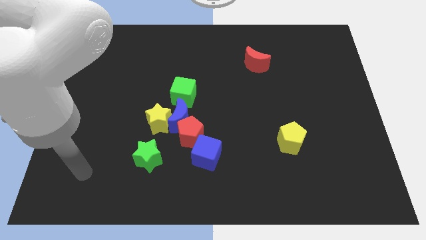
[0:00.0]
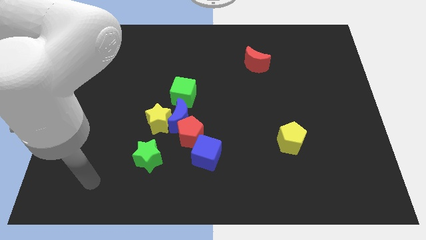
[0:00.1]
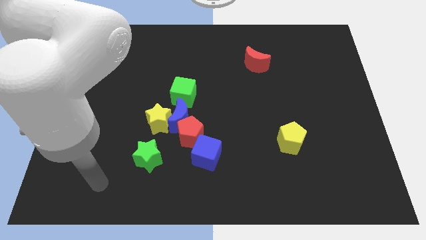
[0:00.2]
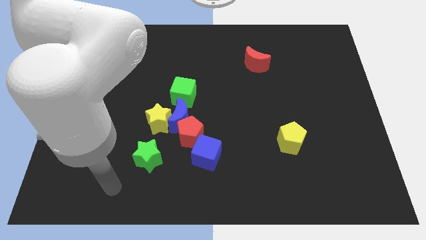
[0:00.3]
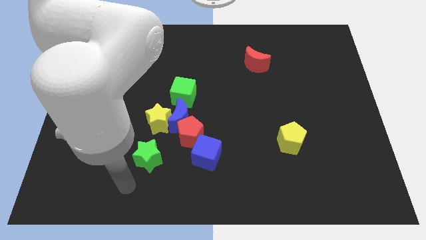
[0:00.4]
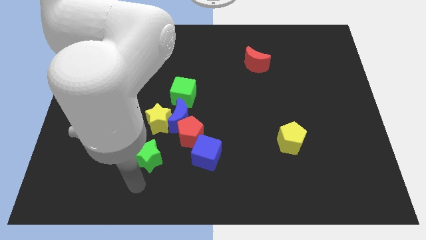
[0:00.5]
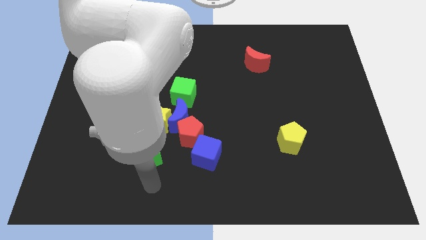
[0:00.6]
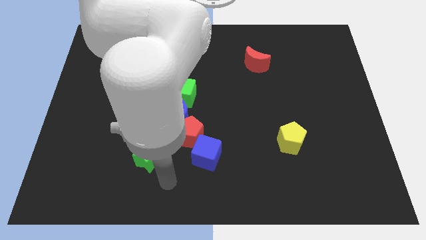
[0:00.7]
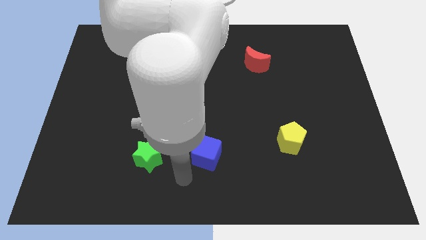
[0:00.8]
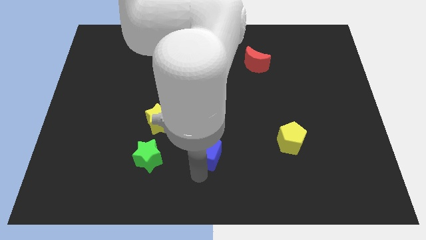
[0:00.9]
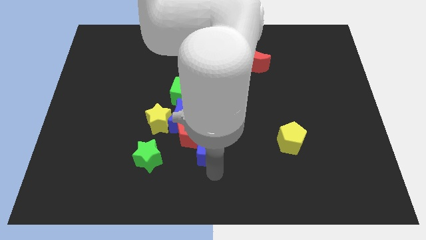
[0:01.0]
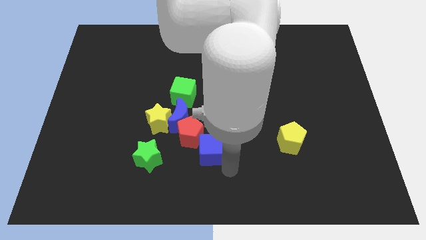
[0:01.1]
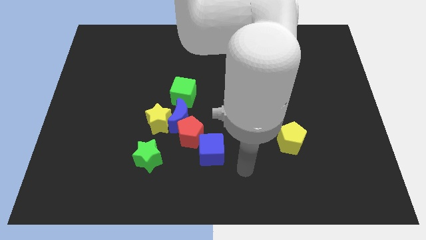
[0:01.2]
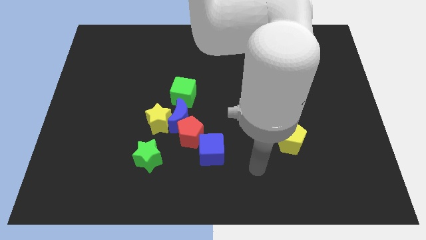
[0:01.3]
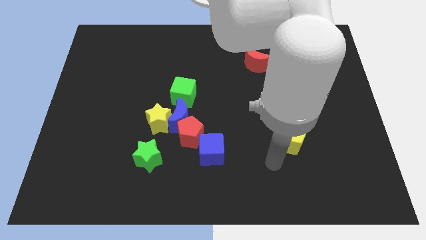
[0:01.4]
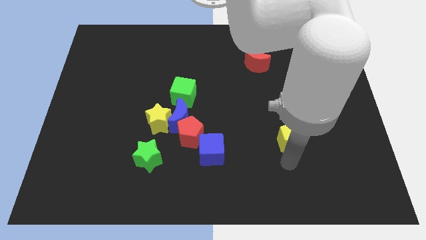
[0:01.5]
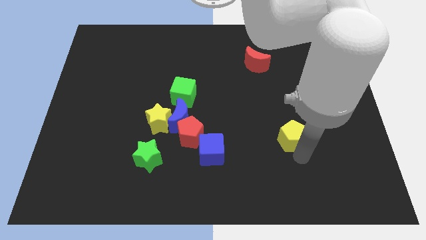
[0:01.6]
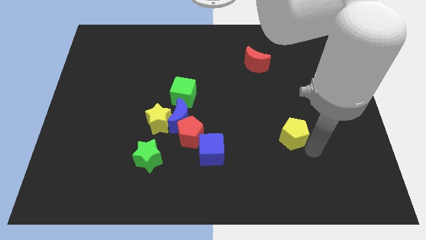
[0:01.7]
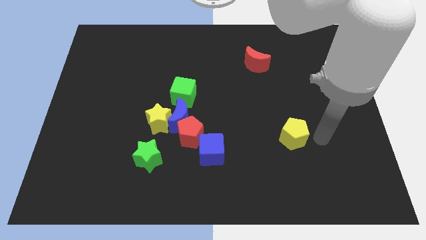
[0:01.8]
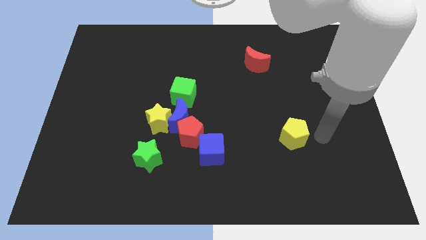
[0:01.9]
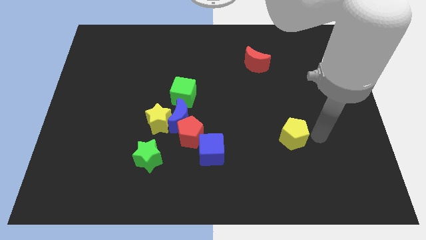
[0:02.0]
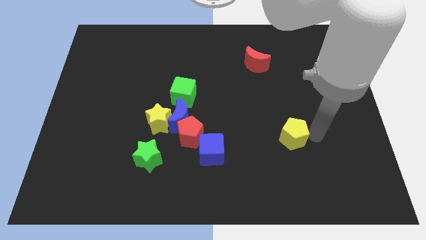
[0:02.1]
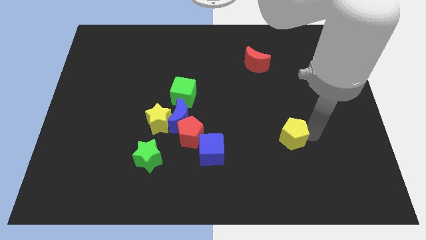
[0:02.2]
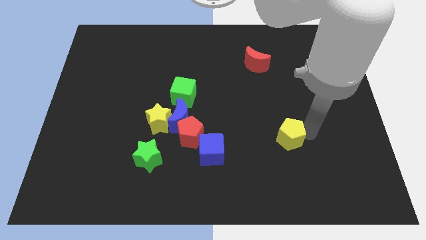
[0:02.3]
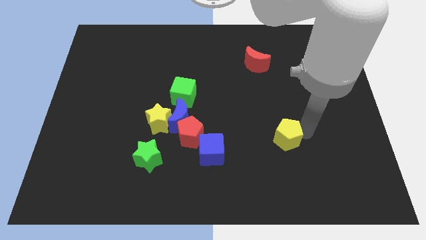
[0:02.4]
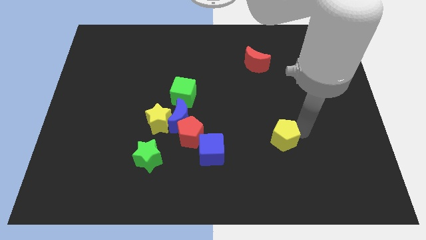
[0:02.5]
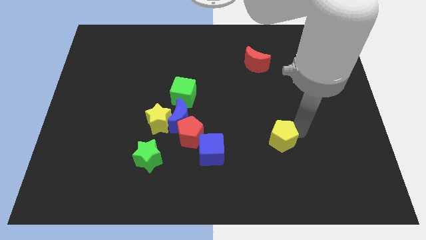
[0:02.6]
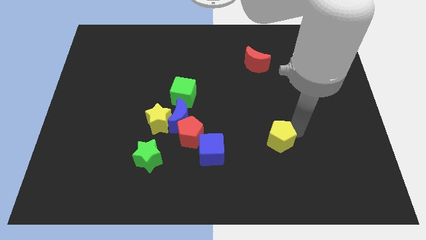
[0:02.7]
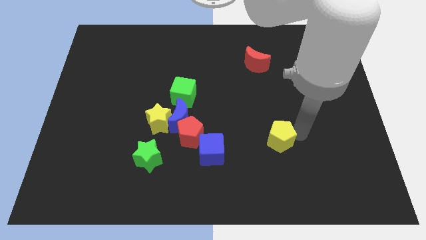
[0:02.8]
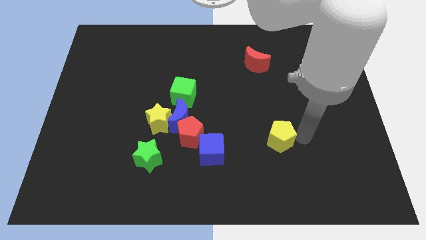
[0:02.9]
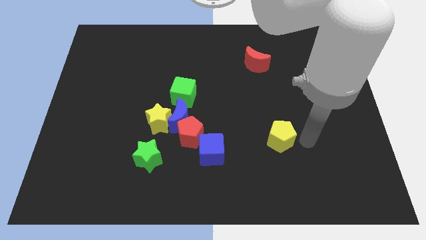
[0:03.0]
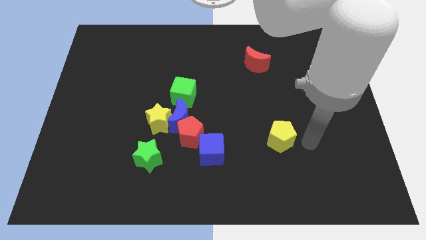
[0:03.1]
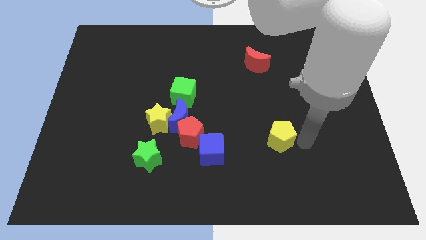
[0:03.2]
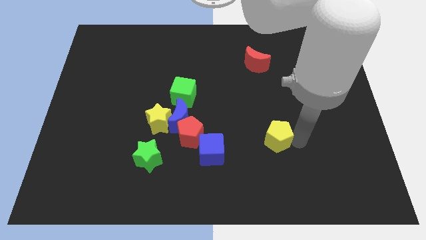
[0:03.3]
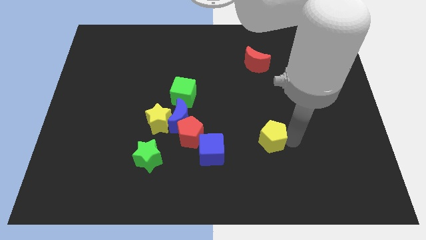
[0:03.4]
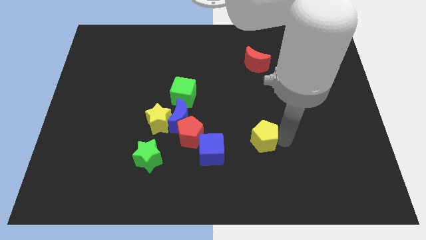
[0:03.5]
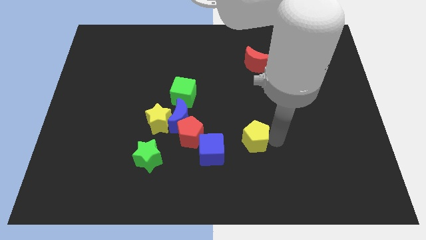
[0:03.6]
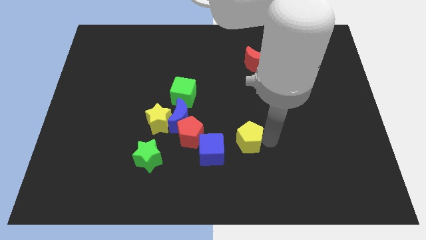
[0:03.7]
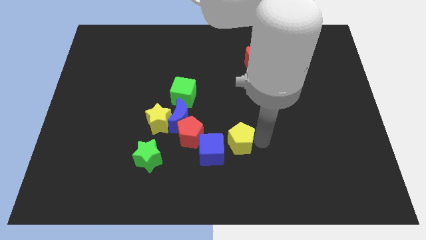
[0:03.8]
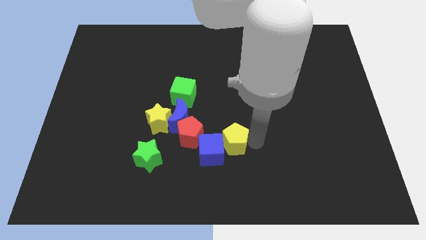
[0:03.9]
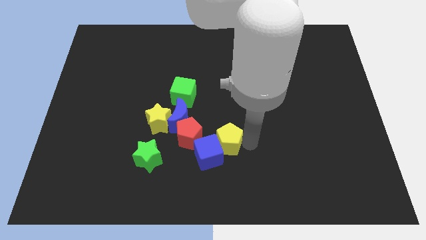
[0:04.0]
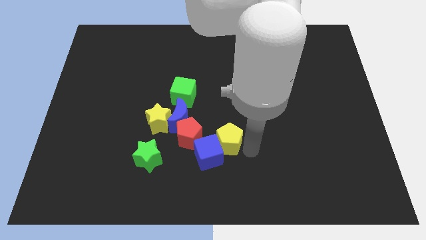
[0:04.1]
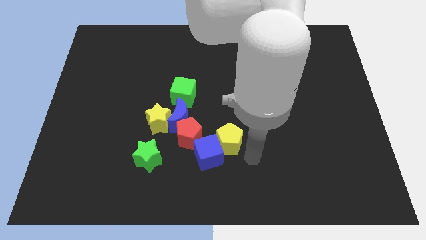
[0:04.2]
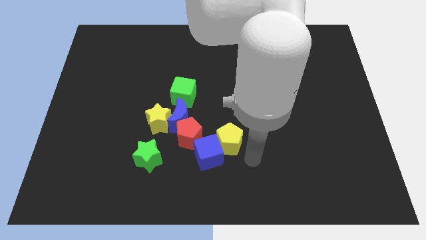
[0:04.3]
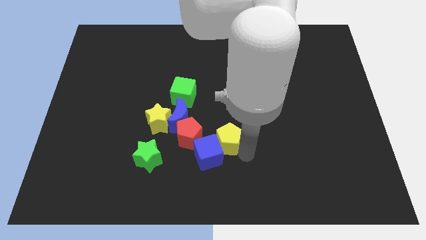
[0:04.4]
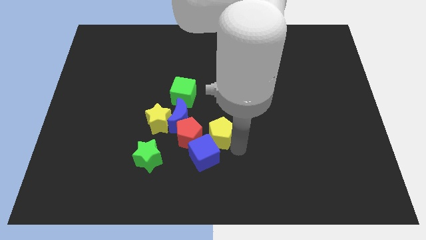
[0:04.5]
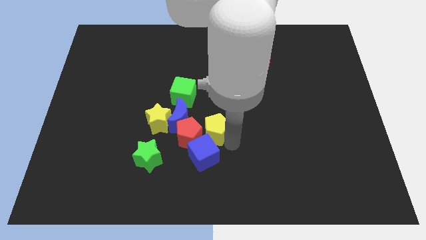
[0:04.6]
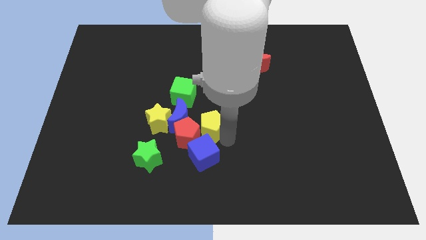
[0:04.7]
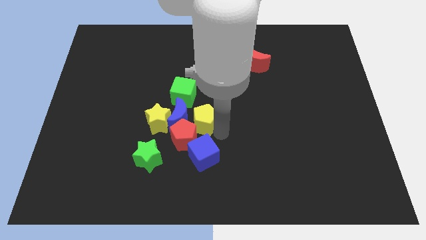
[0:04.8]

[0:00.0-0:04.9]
move the yellow pentagon to the blue moon

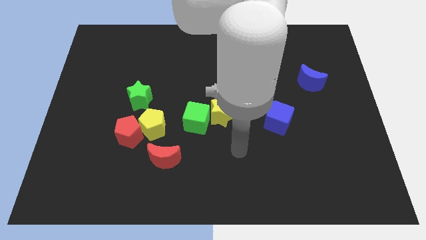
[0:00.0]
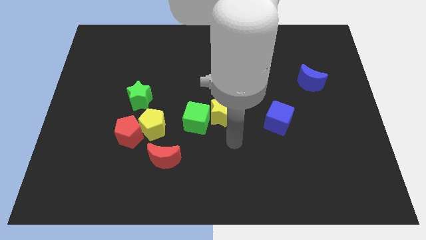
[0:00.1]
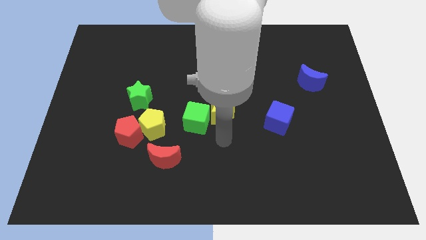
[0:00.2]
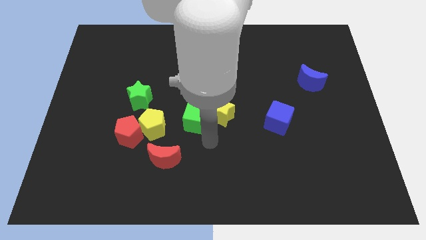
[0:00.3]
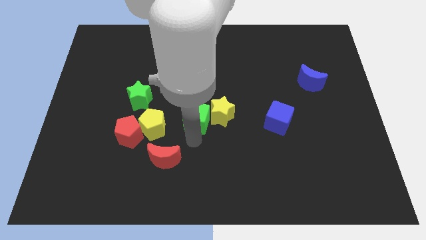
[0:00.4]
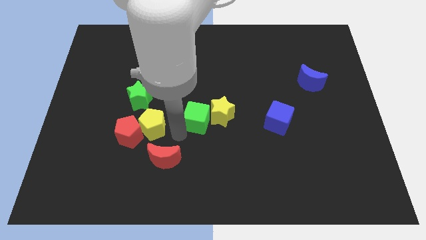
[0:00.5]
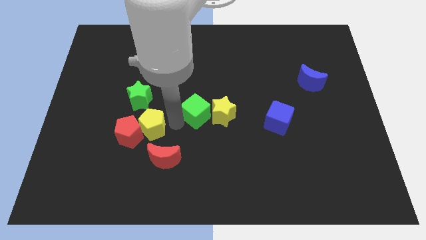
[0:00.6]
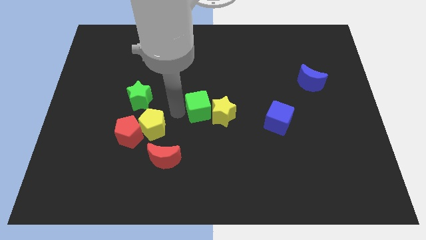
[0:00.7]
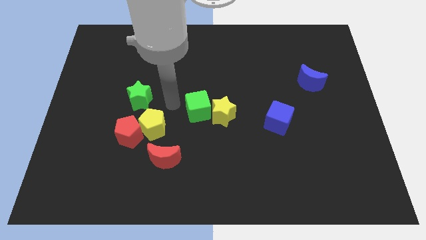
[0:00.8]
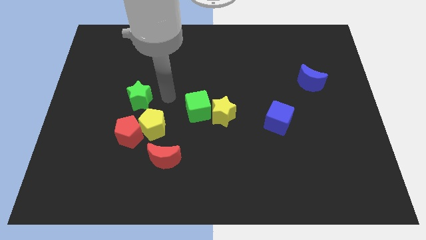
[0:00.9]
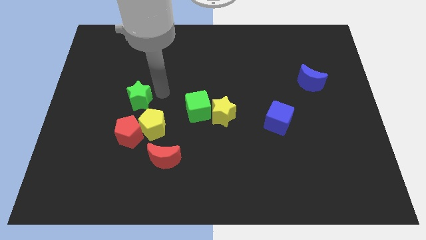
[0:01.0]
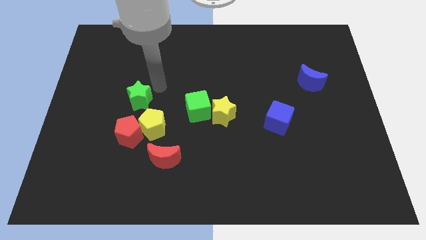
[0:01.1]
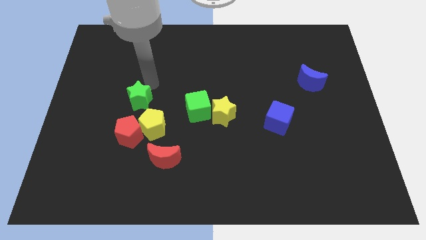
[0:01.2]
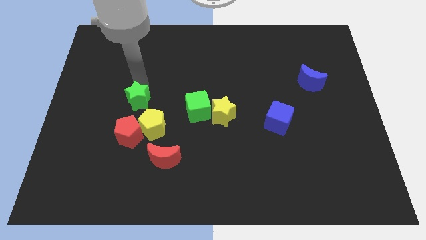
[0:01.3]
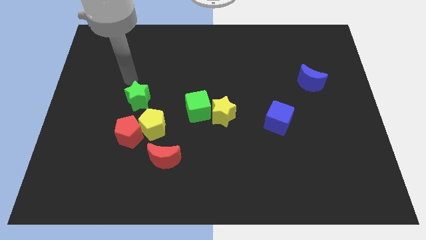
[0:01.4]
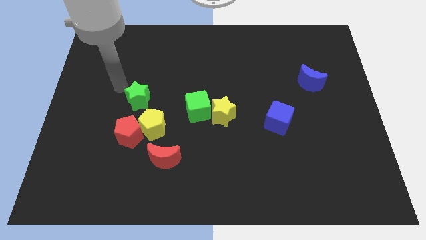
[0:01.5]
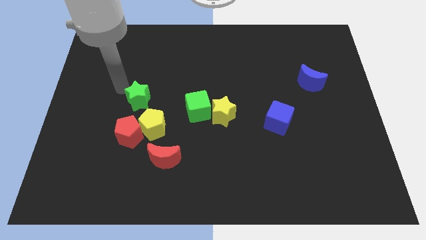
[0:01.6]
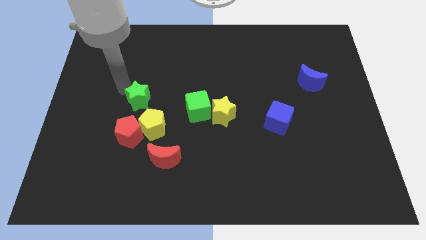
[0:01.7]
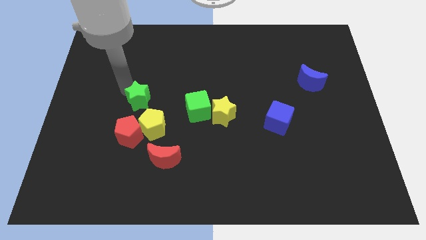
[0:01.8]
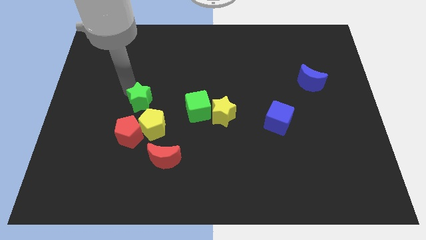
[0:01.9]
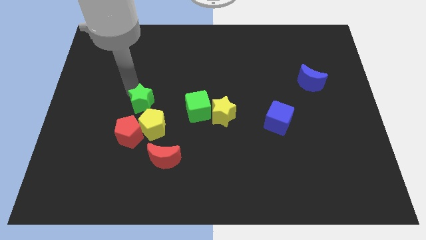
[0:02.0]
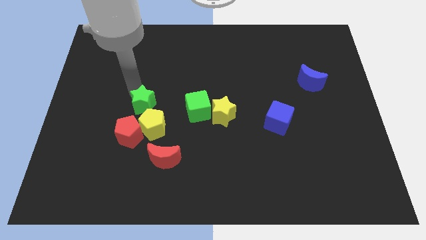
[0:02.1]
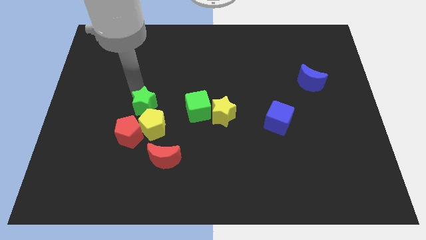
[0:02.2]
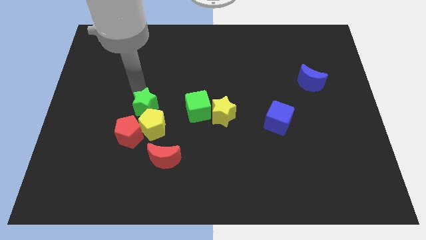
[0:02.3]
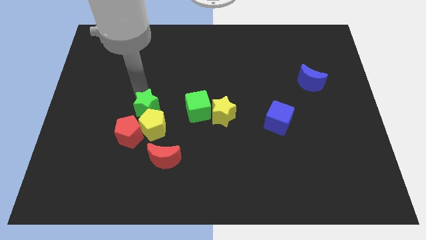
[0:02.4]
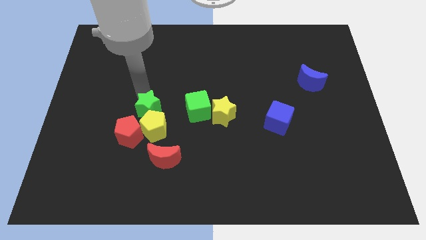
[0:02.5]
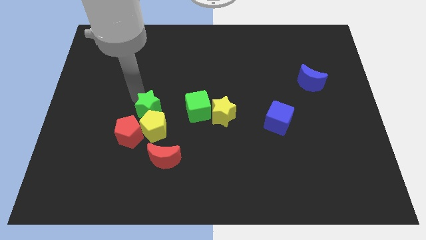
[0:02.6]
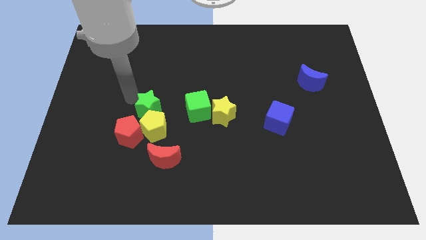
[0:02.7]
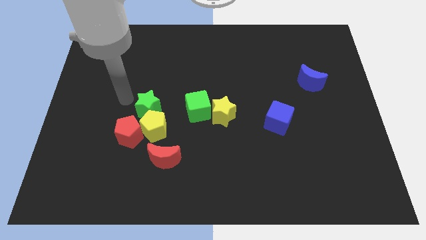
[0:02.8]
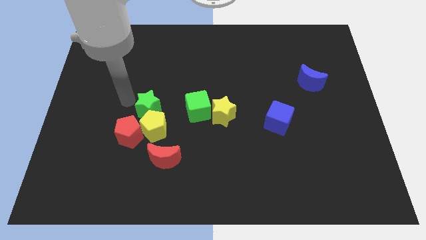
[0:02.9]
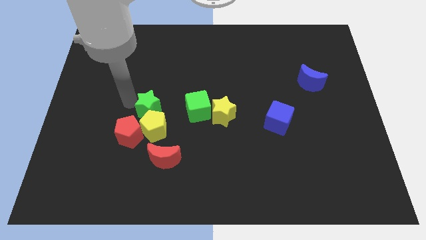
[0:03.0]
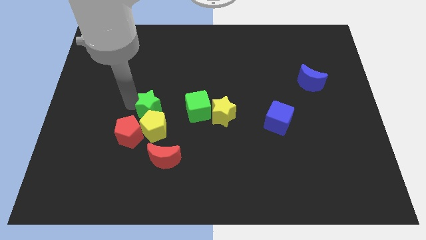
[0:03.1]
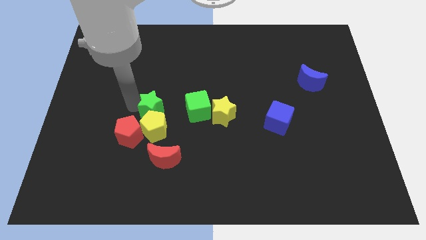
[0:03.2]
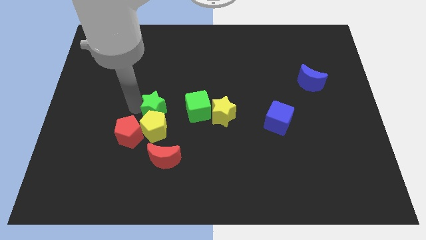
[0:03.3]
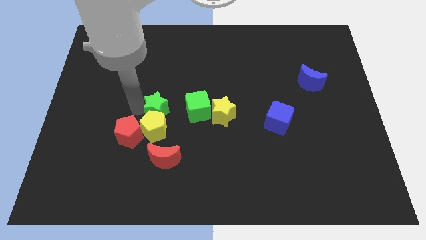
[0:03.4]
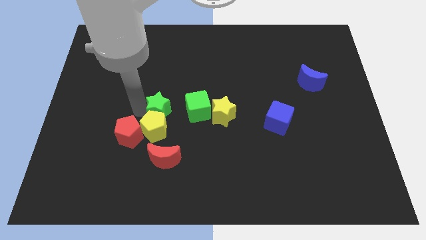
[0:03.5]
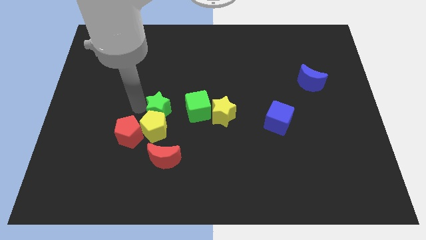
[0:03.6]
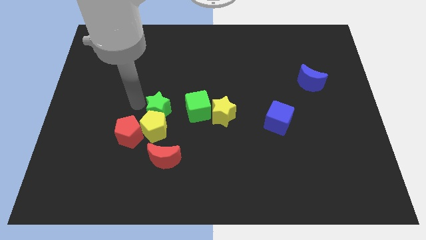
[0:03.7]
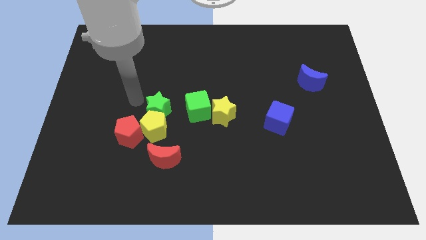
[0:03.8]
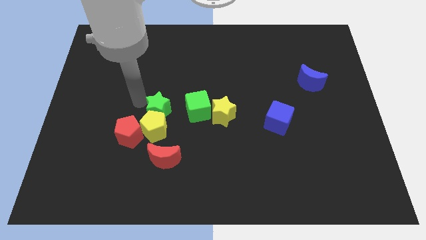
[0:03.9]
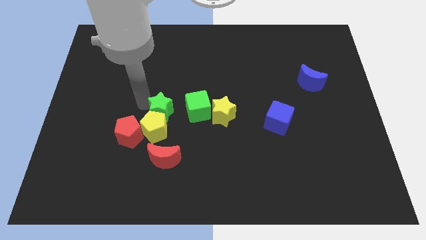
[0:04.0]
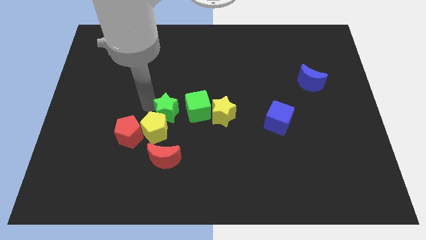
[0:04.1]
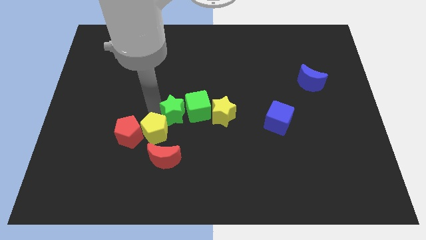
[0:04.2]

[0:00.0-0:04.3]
move the green star towards the green cube
